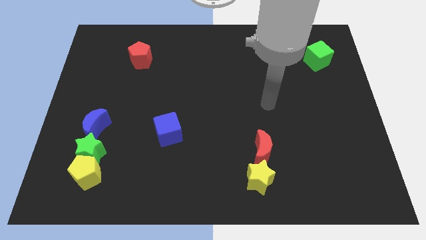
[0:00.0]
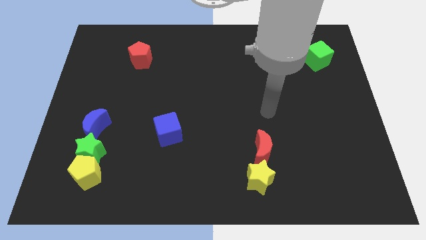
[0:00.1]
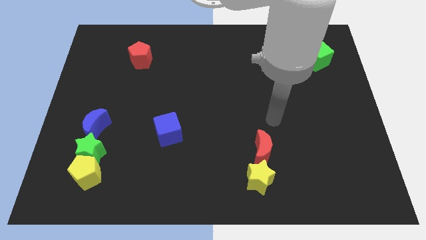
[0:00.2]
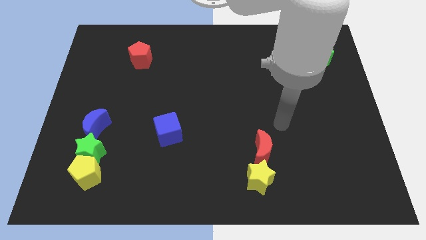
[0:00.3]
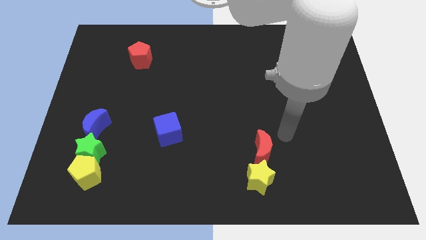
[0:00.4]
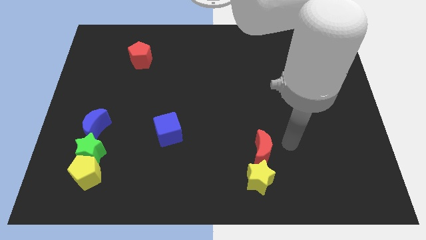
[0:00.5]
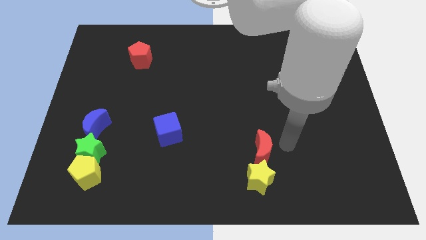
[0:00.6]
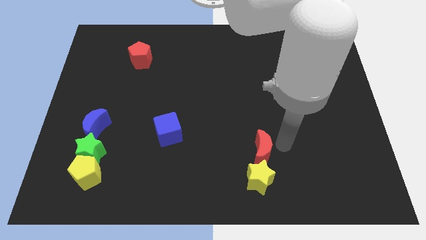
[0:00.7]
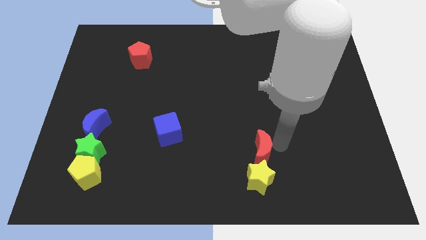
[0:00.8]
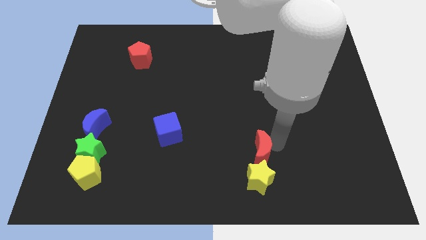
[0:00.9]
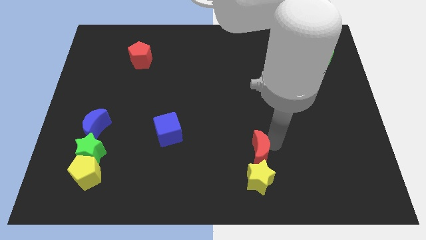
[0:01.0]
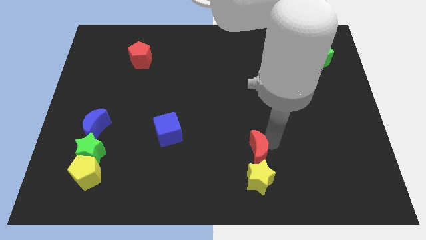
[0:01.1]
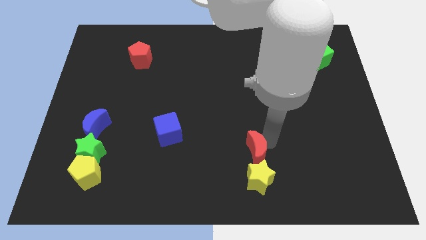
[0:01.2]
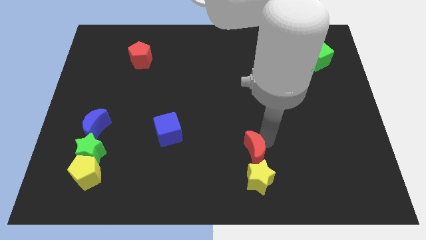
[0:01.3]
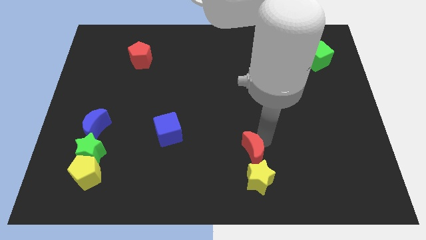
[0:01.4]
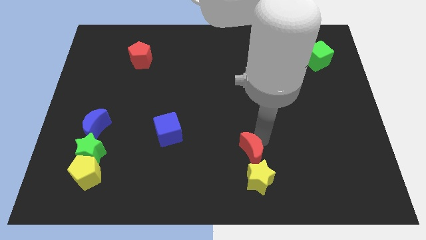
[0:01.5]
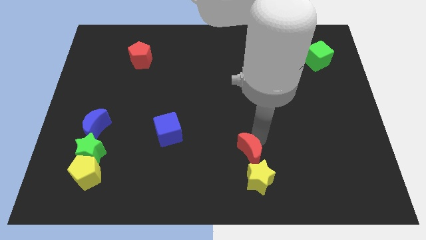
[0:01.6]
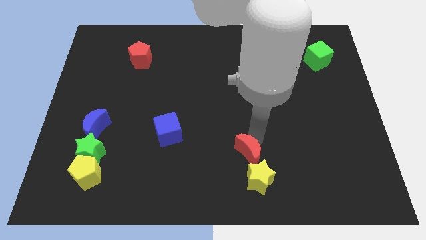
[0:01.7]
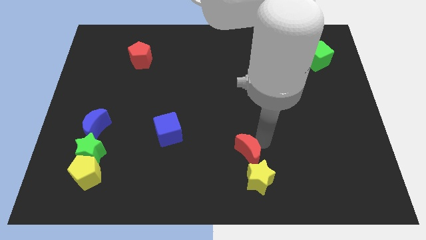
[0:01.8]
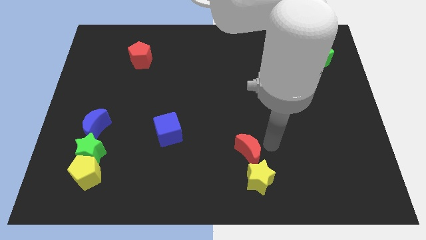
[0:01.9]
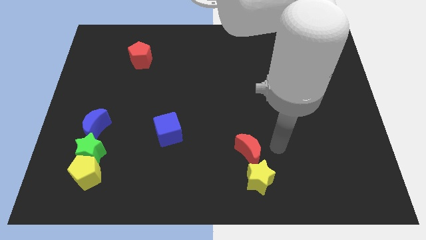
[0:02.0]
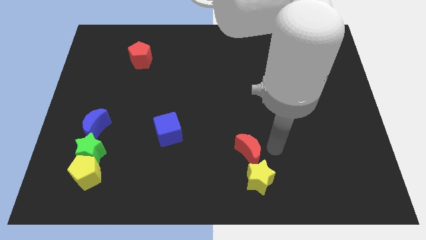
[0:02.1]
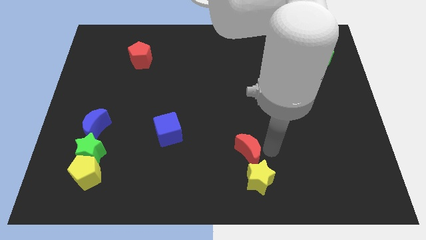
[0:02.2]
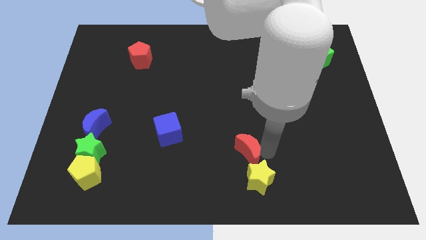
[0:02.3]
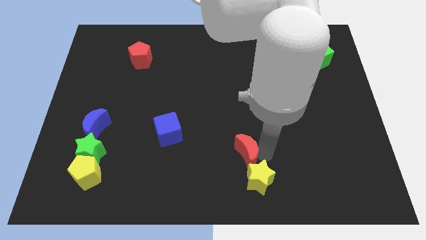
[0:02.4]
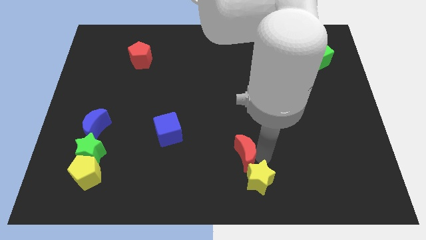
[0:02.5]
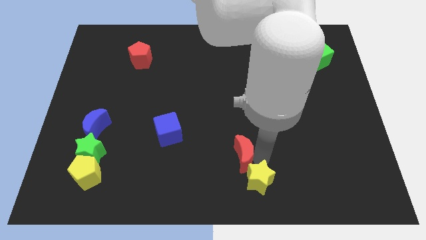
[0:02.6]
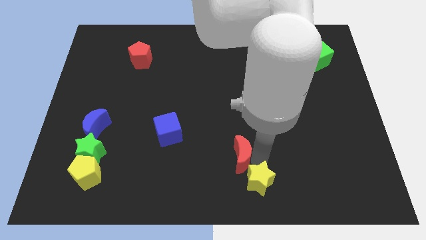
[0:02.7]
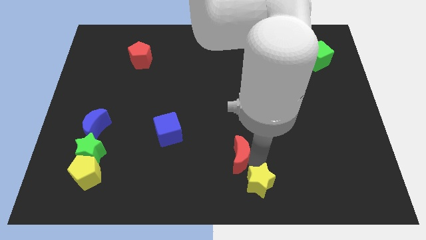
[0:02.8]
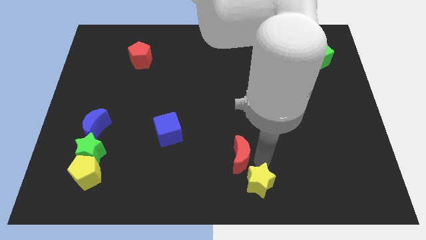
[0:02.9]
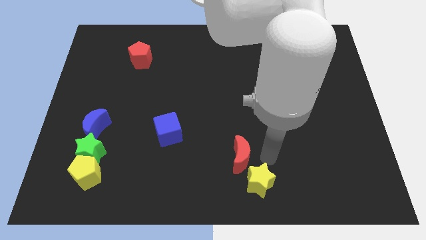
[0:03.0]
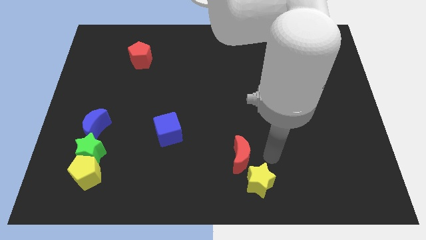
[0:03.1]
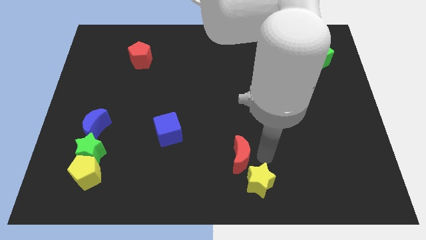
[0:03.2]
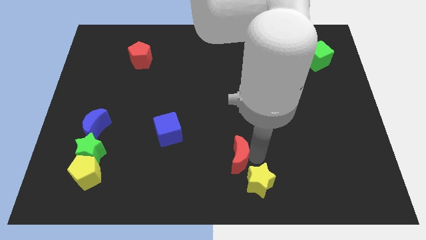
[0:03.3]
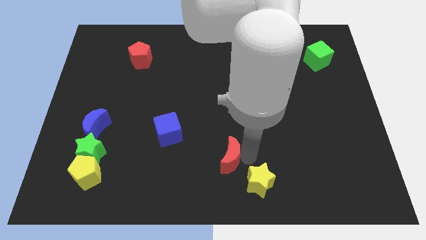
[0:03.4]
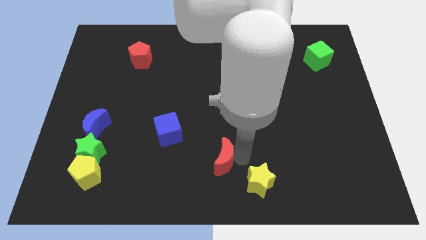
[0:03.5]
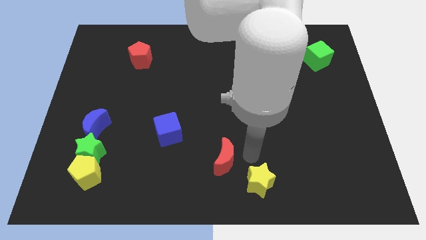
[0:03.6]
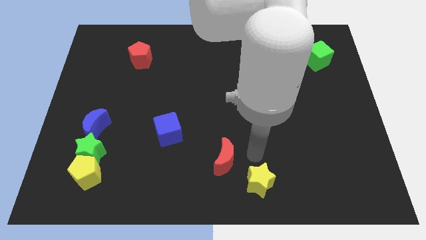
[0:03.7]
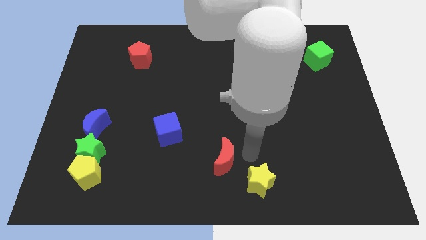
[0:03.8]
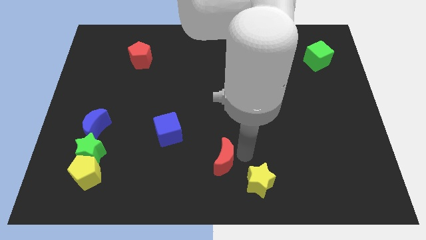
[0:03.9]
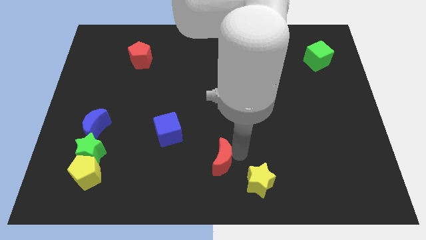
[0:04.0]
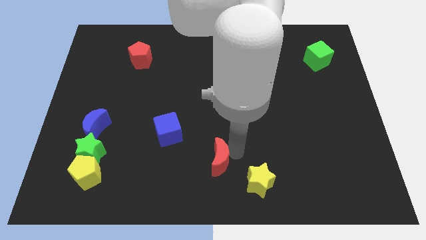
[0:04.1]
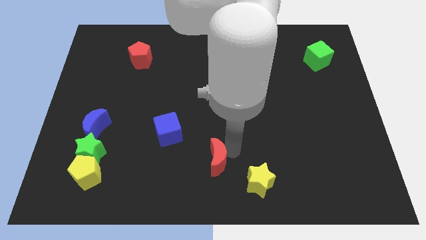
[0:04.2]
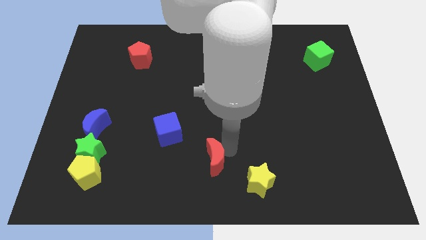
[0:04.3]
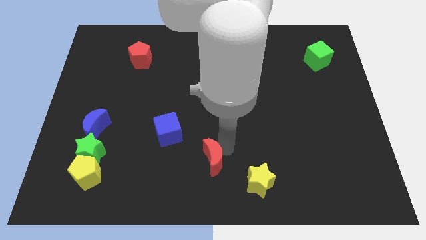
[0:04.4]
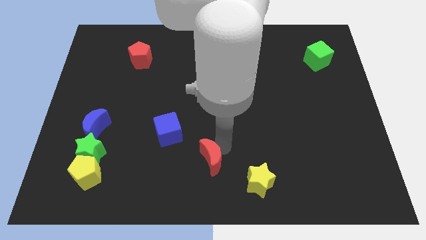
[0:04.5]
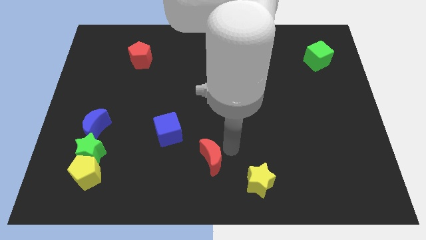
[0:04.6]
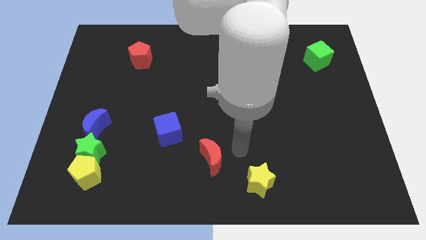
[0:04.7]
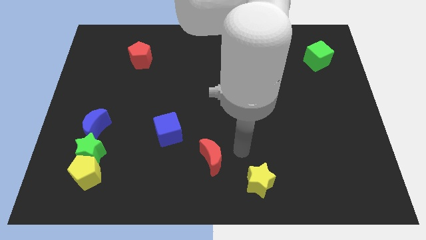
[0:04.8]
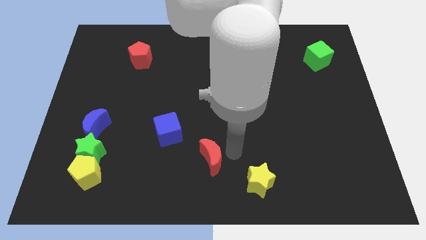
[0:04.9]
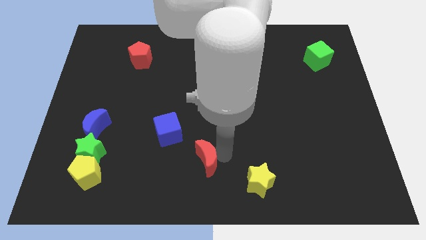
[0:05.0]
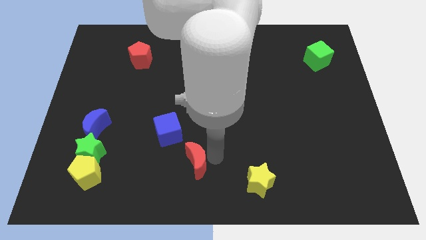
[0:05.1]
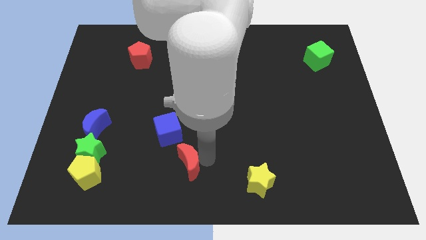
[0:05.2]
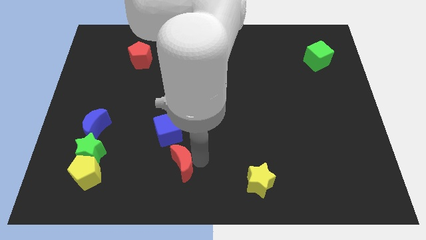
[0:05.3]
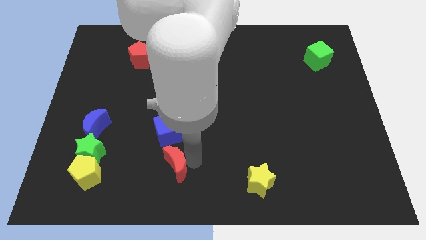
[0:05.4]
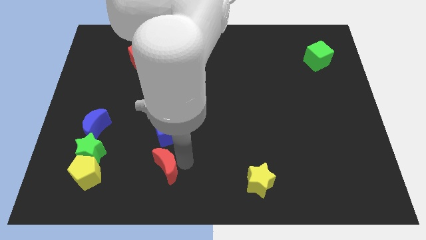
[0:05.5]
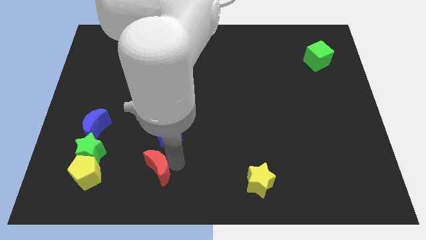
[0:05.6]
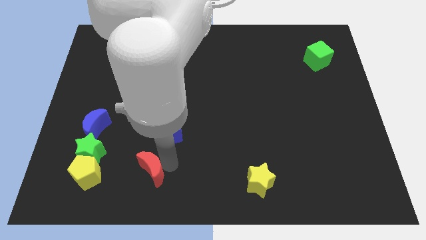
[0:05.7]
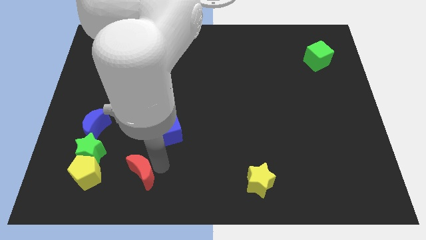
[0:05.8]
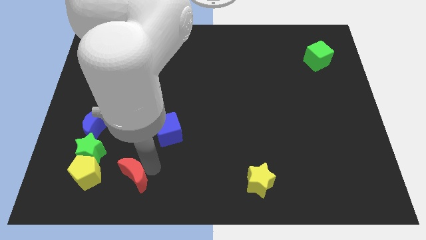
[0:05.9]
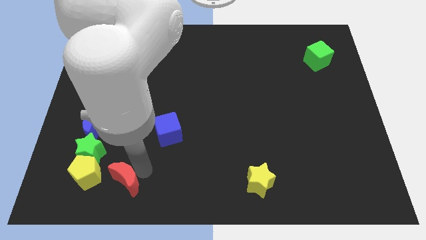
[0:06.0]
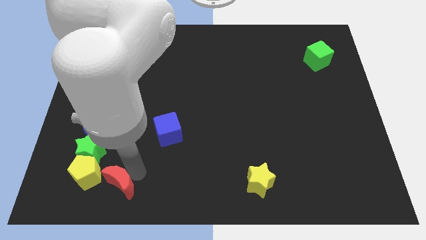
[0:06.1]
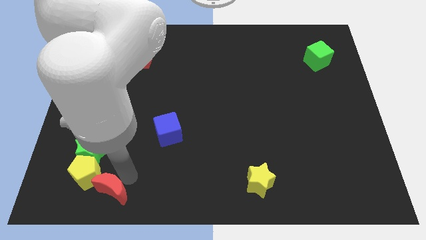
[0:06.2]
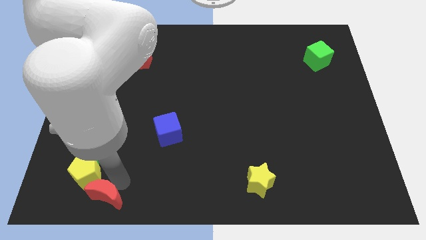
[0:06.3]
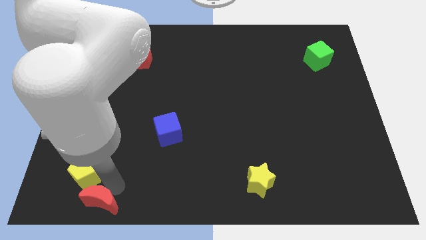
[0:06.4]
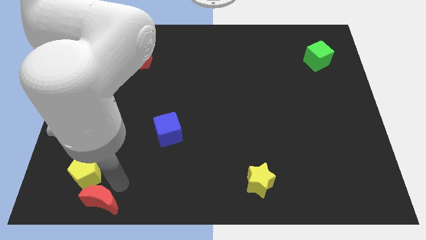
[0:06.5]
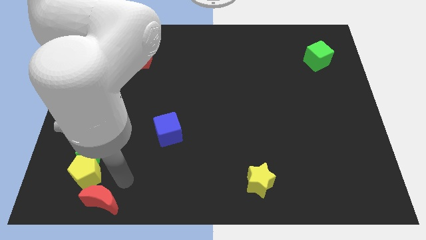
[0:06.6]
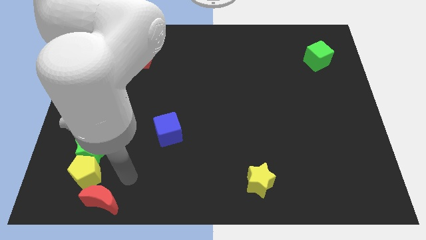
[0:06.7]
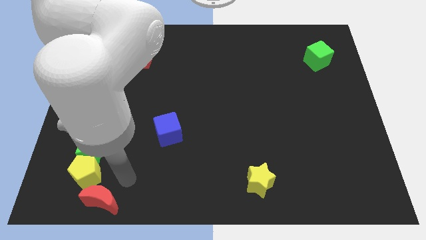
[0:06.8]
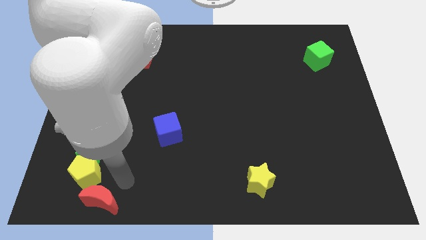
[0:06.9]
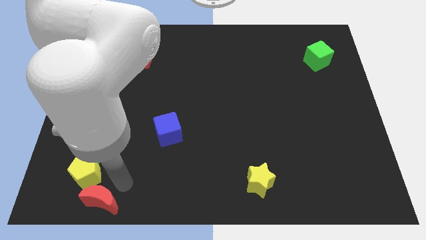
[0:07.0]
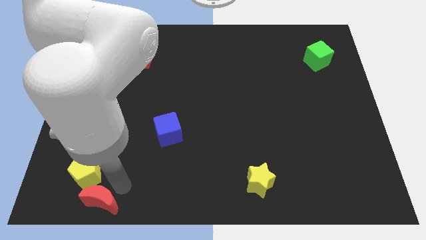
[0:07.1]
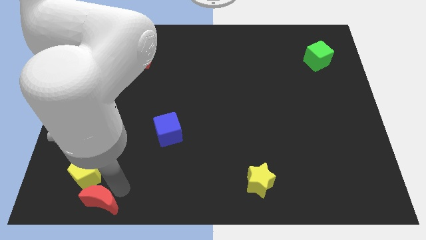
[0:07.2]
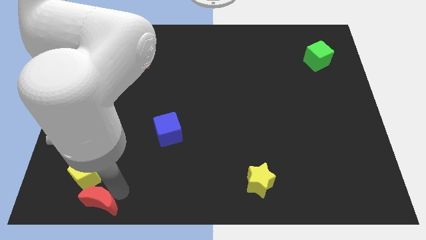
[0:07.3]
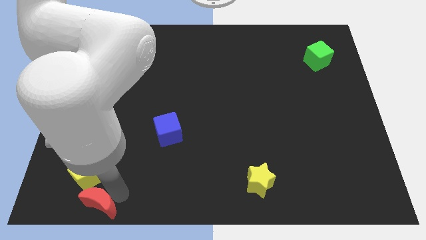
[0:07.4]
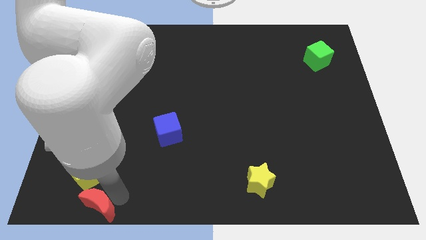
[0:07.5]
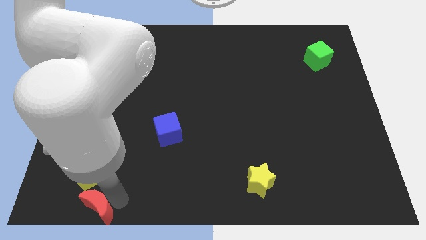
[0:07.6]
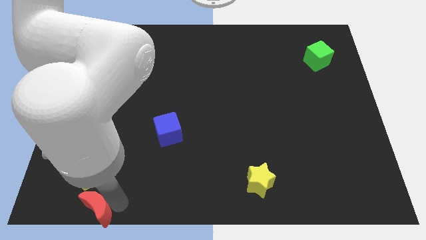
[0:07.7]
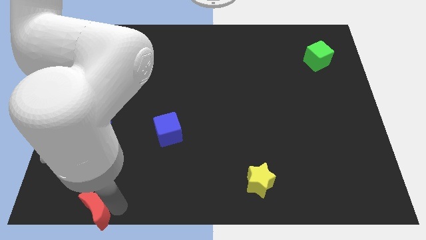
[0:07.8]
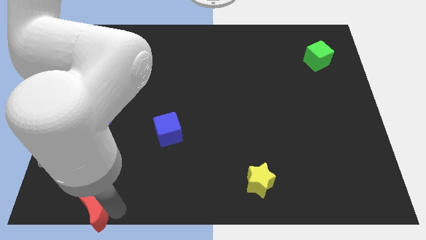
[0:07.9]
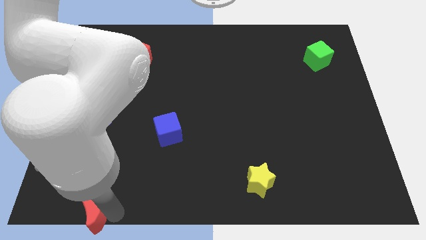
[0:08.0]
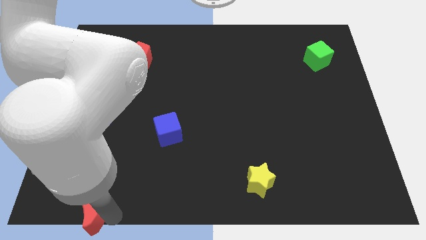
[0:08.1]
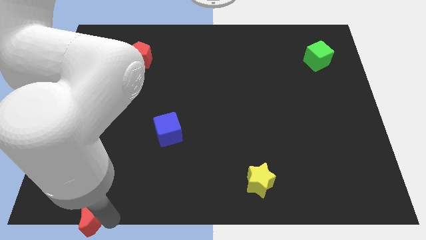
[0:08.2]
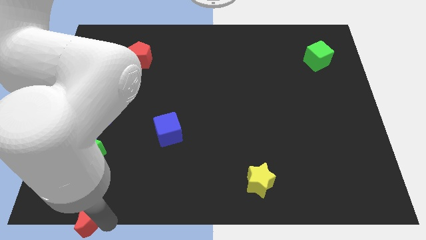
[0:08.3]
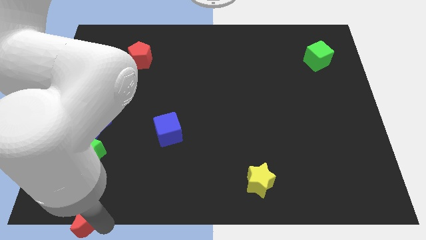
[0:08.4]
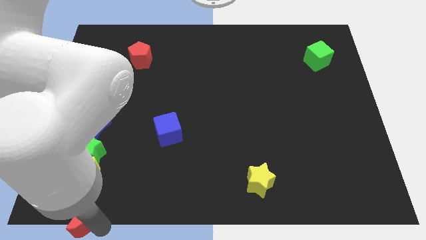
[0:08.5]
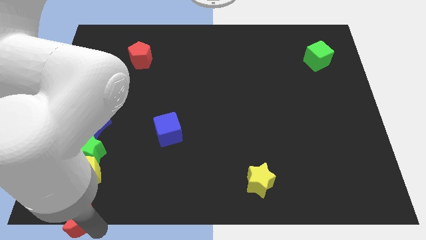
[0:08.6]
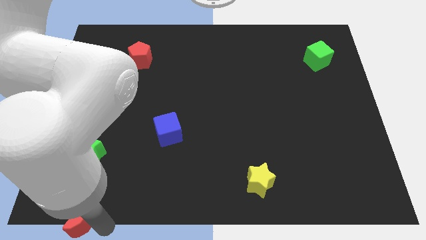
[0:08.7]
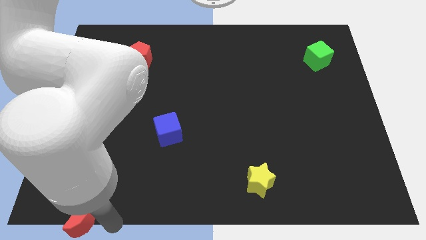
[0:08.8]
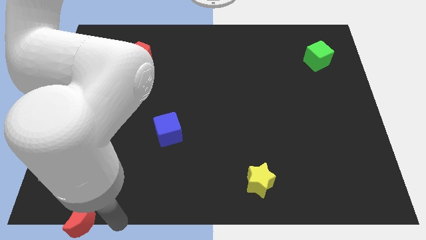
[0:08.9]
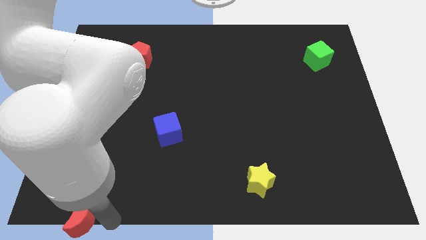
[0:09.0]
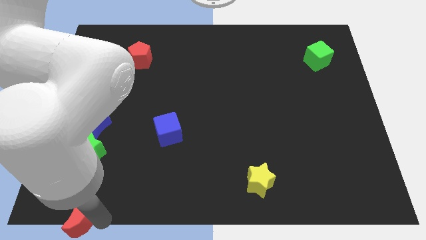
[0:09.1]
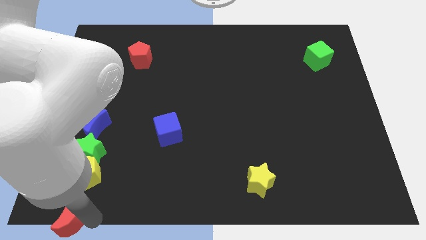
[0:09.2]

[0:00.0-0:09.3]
put the red moon to the lower left corner
